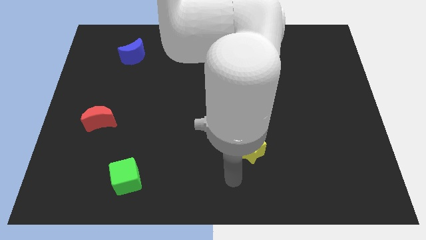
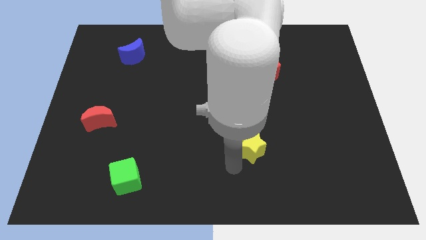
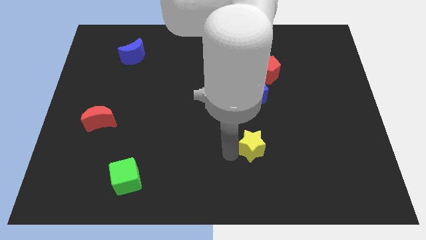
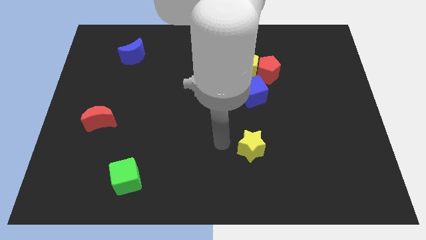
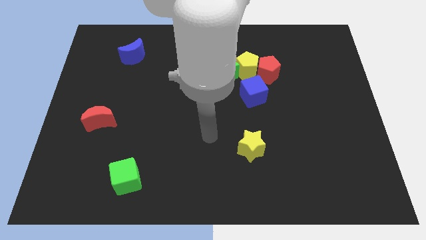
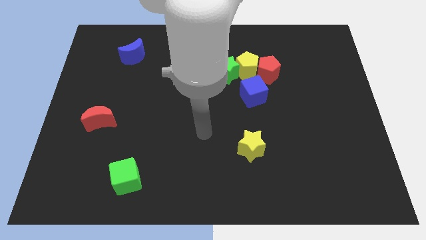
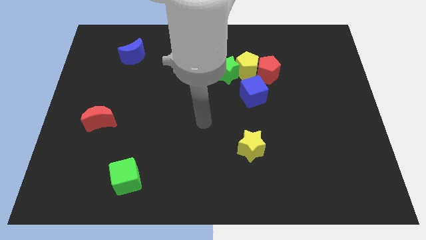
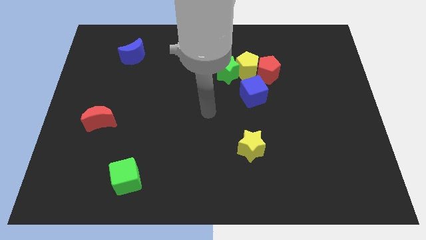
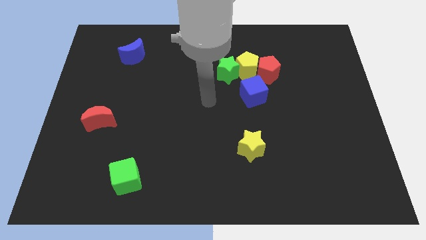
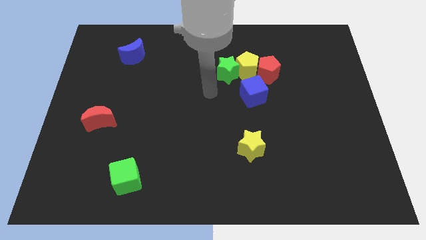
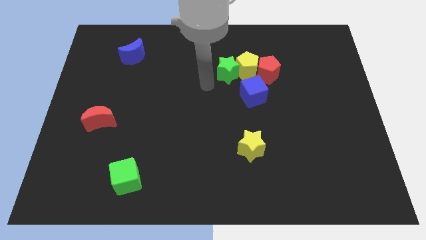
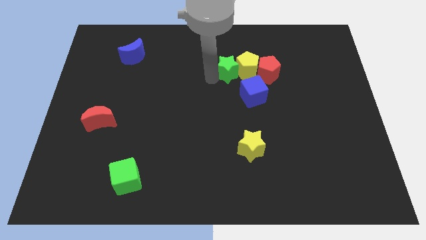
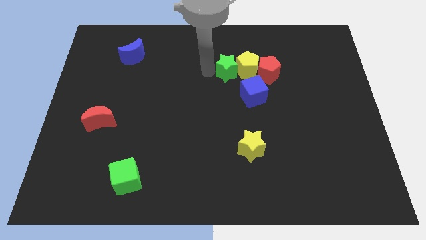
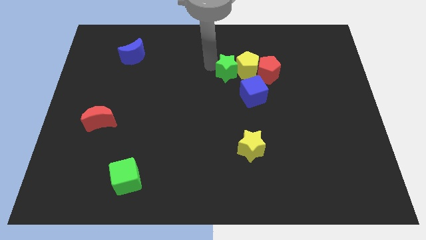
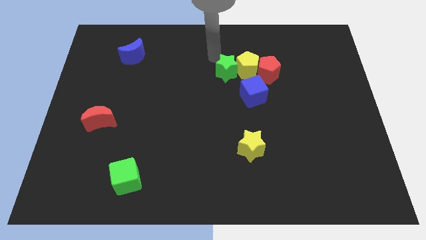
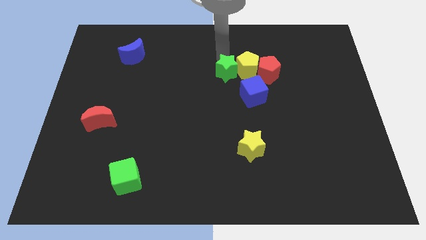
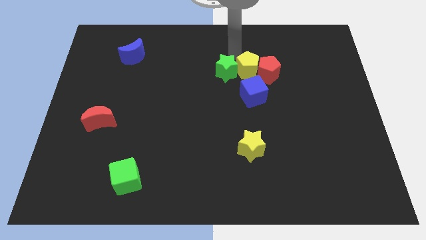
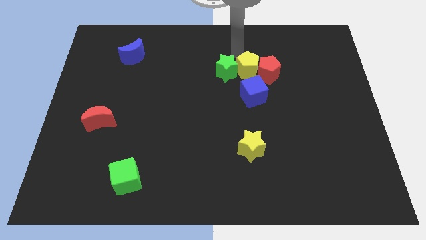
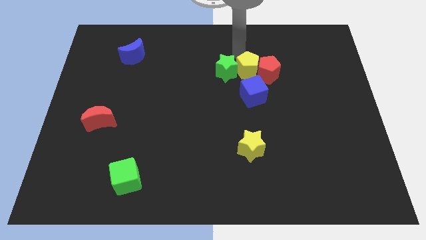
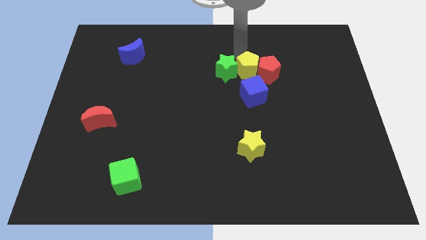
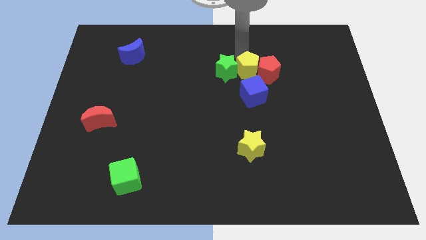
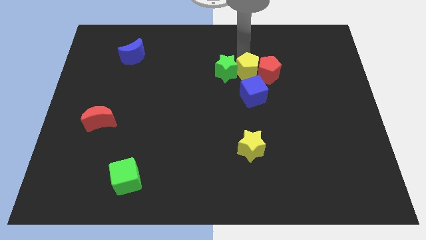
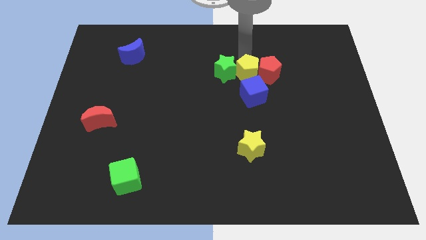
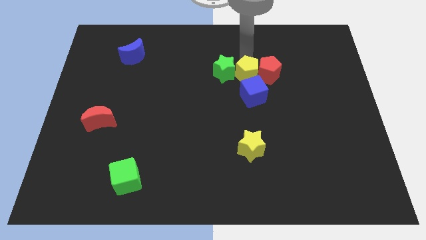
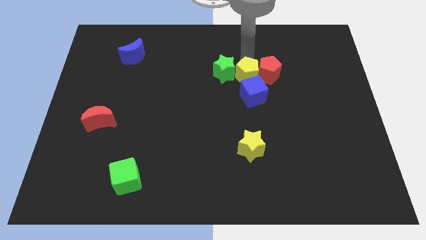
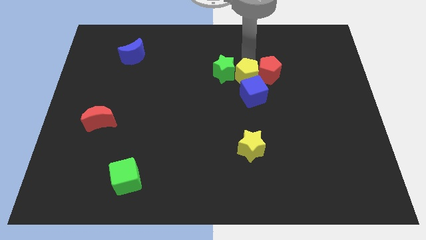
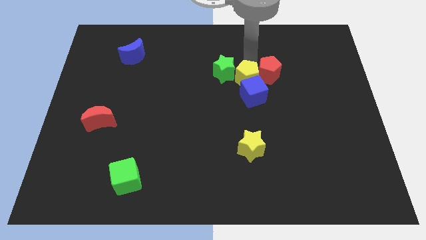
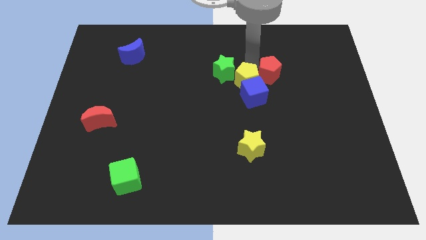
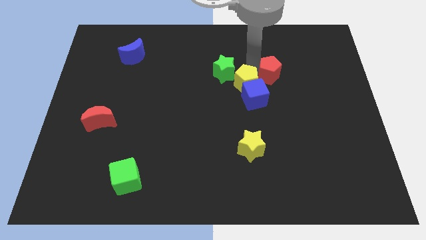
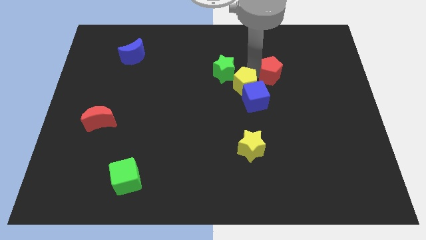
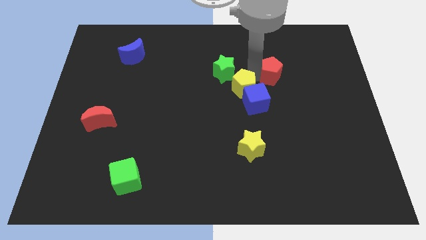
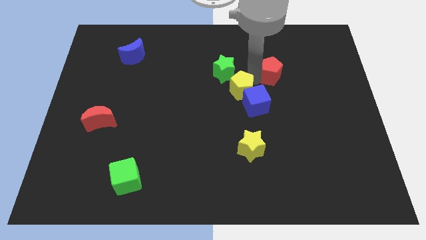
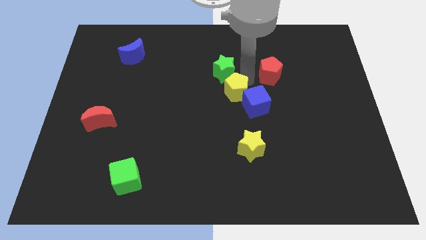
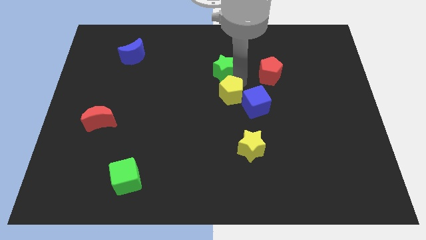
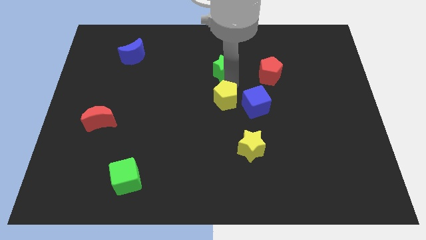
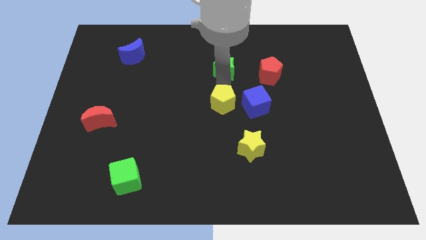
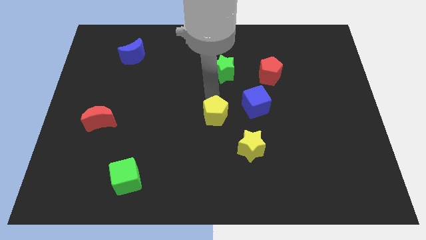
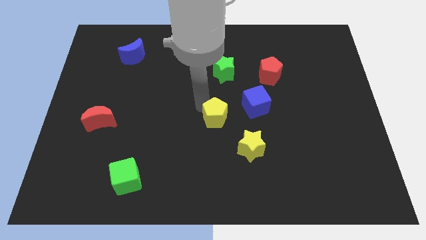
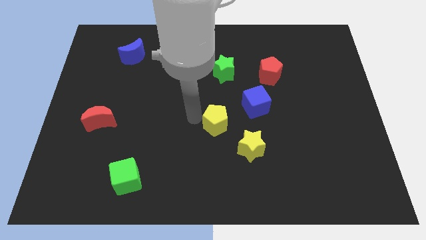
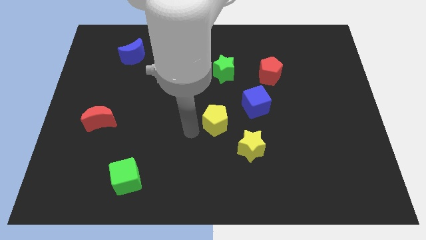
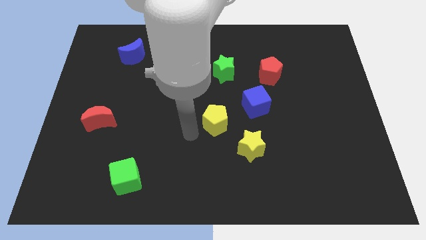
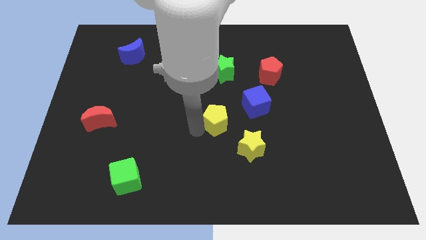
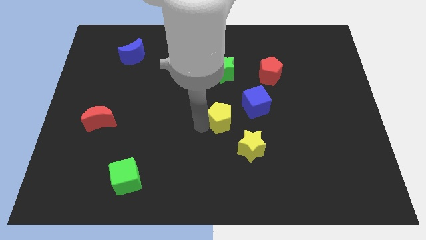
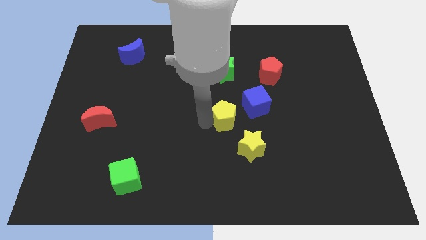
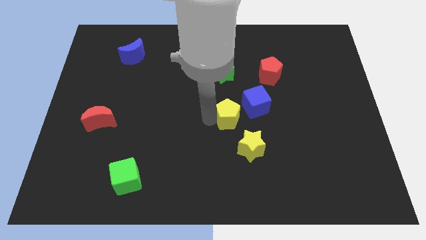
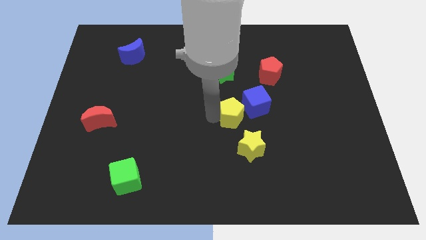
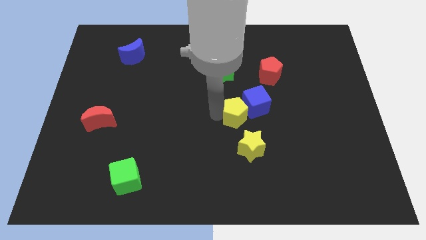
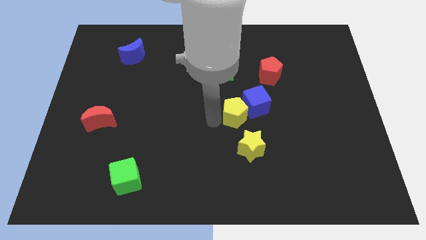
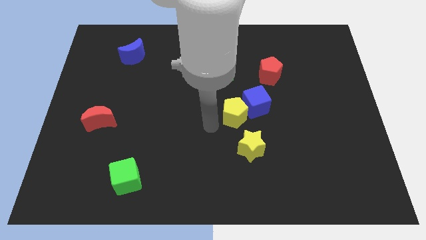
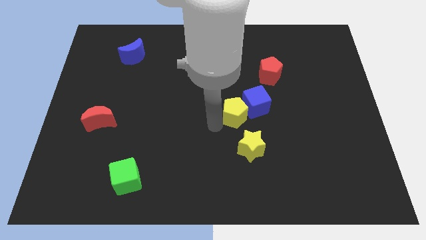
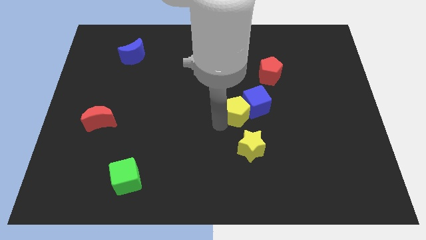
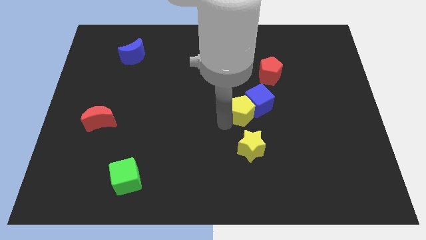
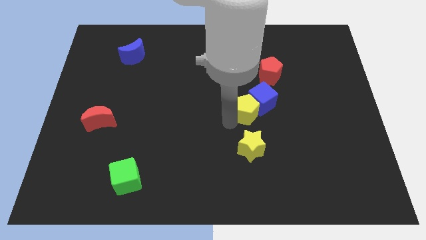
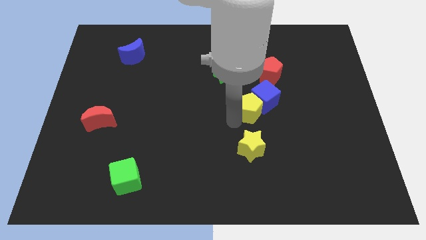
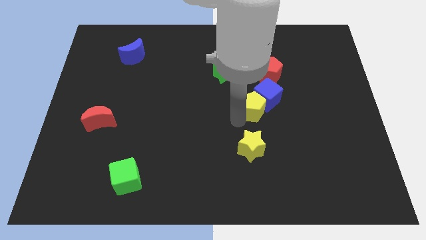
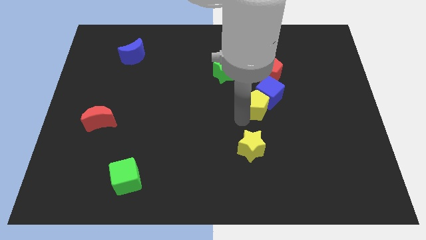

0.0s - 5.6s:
slightly slide the yellow pentagon diagonally down and right

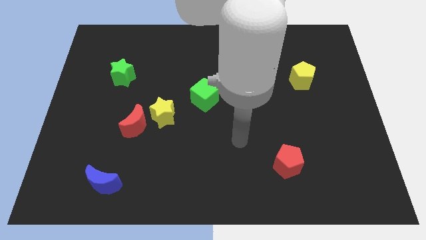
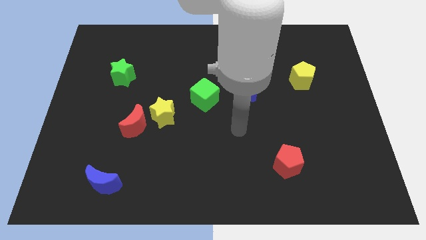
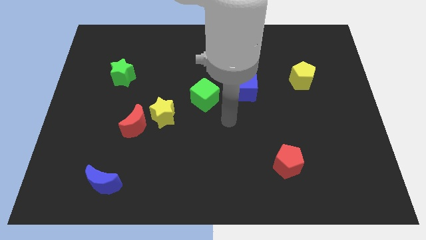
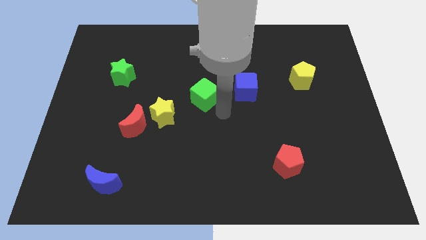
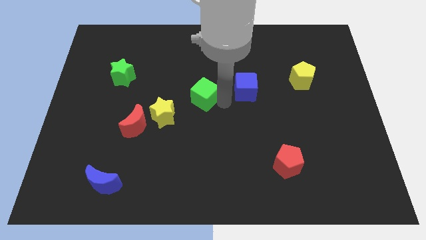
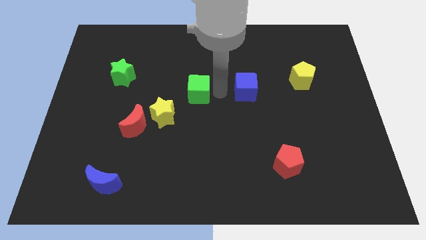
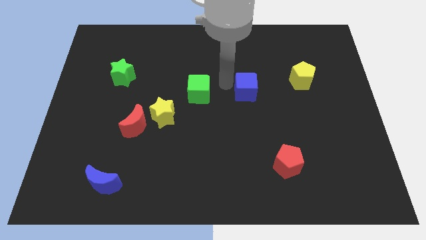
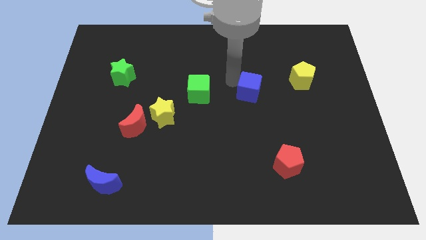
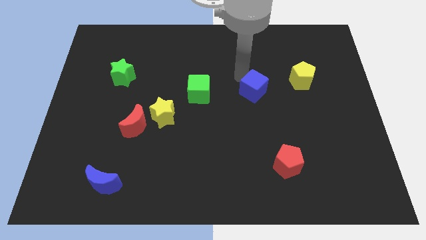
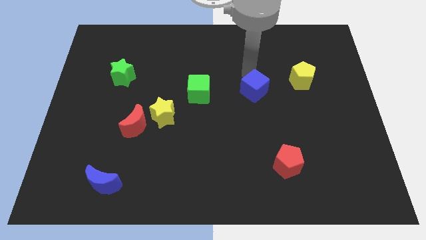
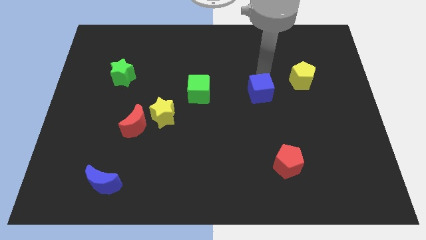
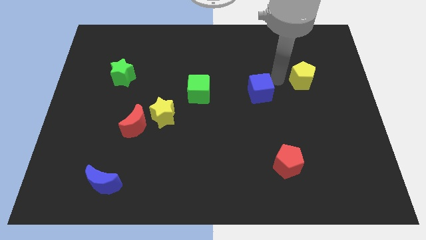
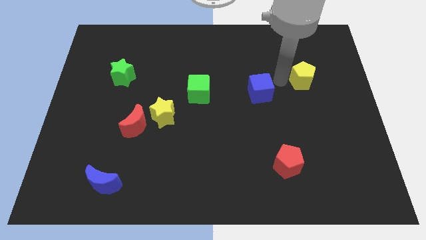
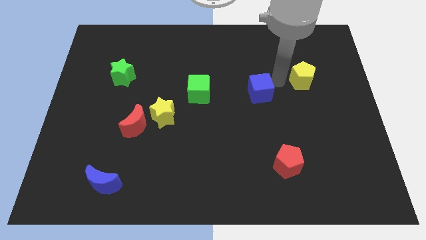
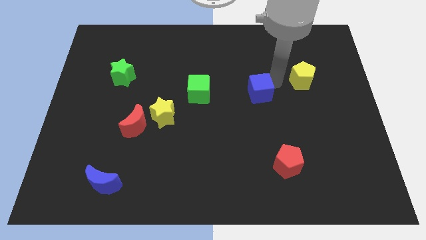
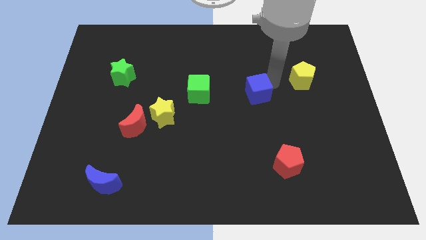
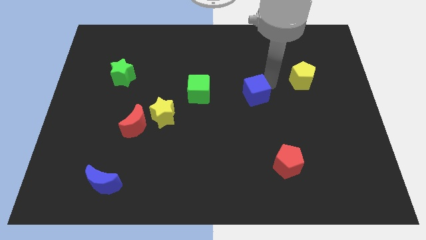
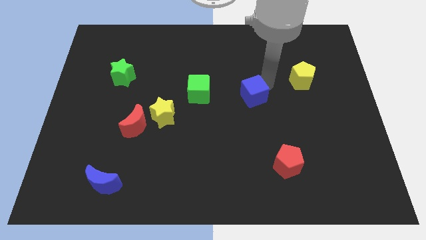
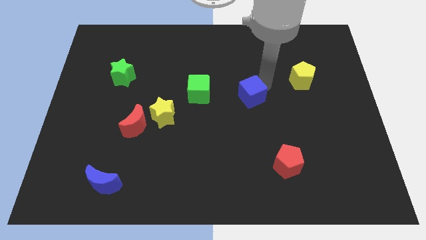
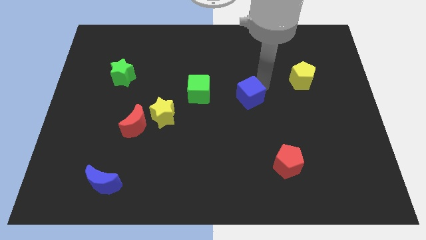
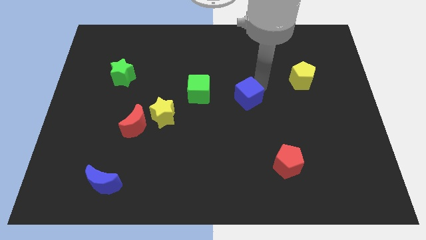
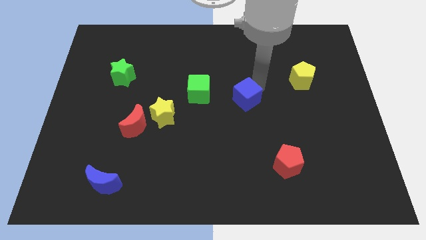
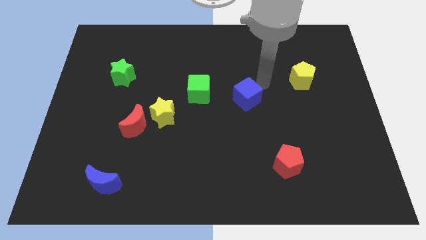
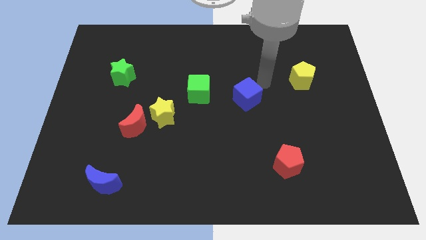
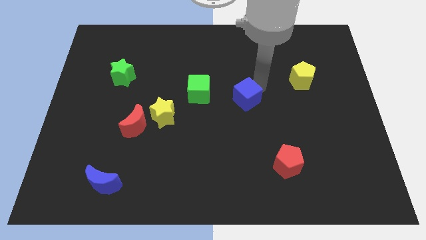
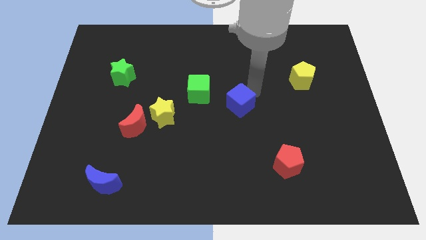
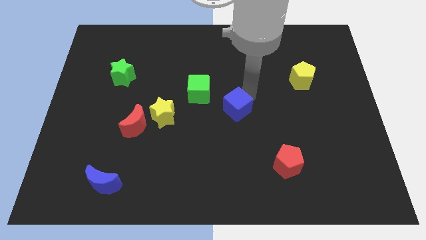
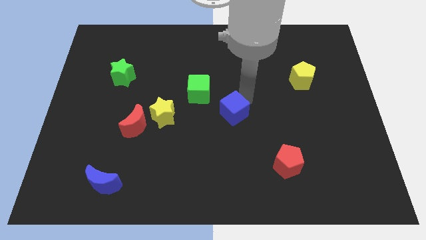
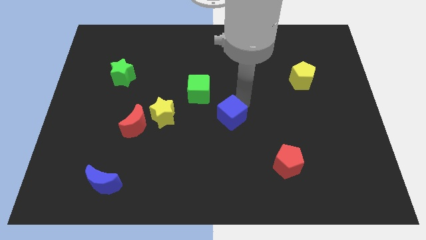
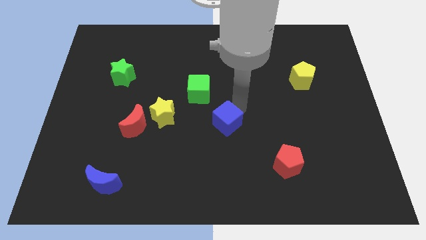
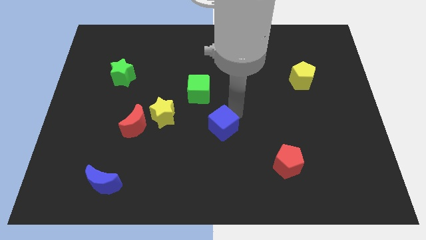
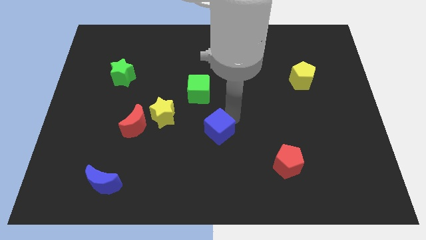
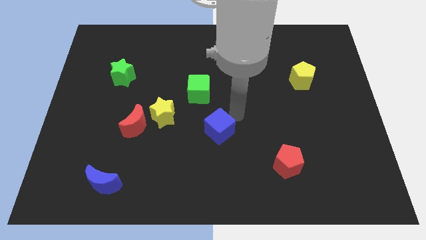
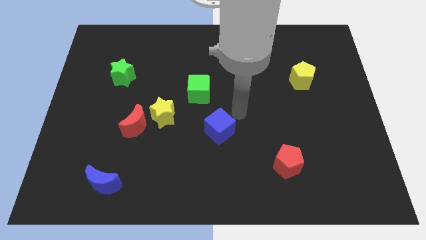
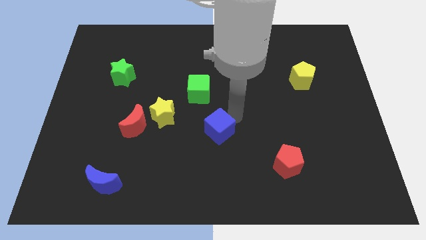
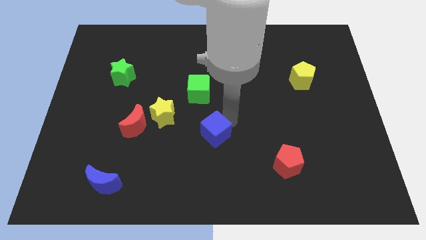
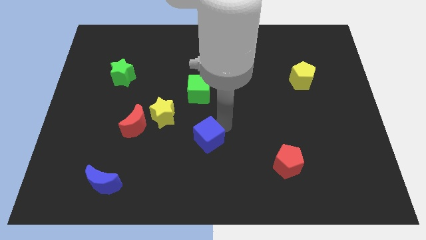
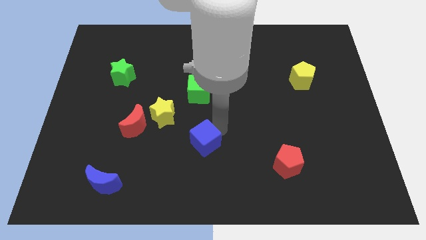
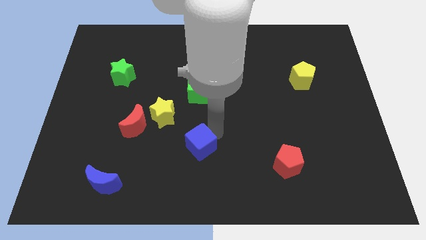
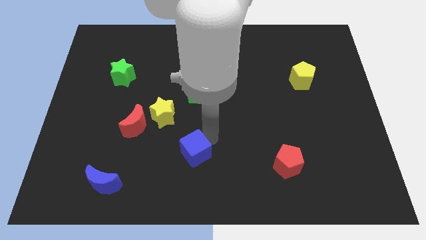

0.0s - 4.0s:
push the blue cube diagonally down and to the left
